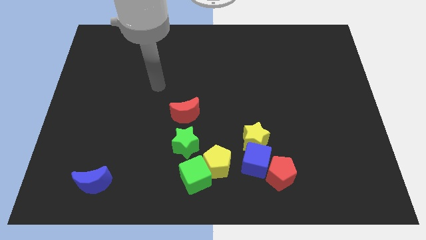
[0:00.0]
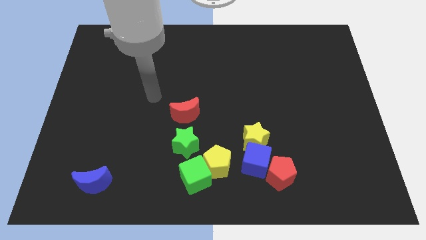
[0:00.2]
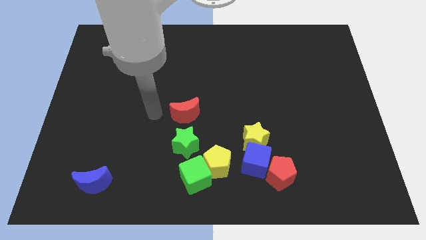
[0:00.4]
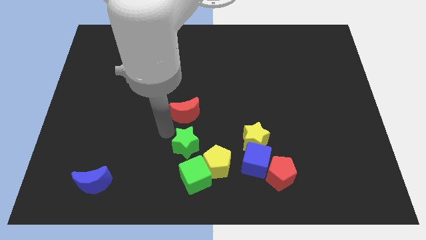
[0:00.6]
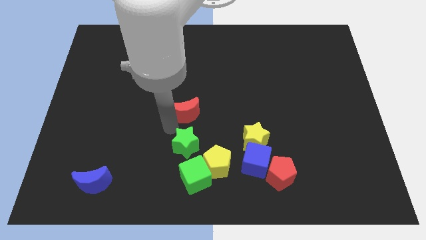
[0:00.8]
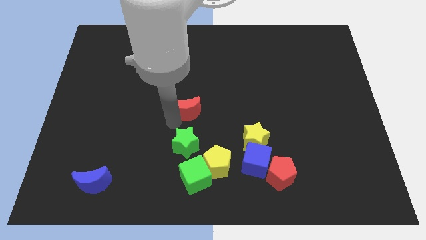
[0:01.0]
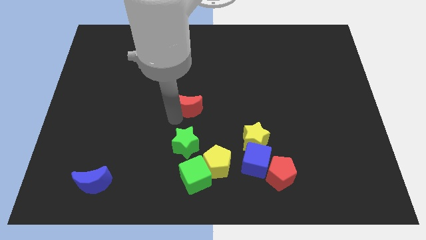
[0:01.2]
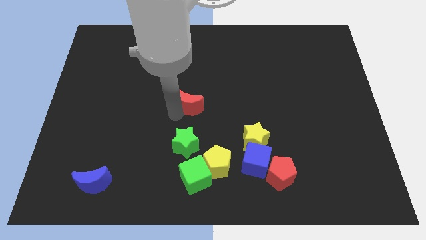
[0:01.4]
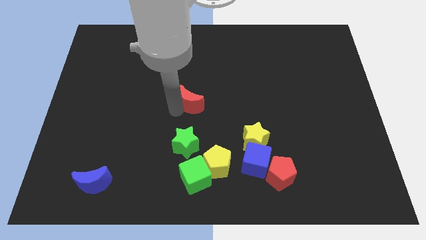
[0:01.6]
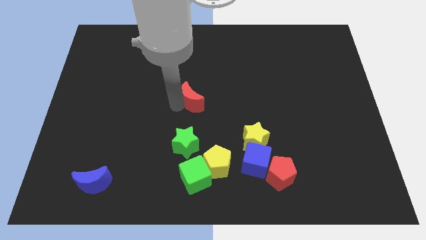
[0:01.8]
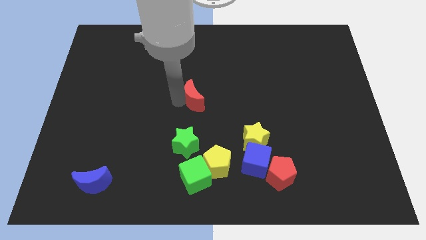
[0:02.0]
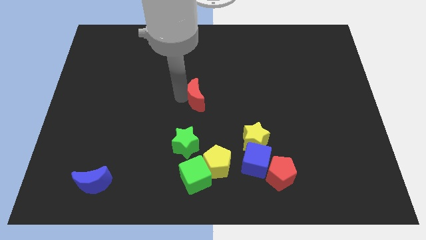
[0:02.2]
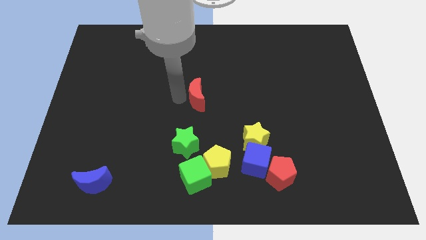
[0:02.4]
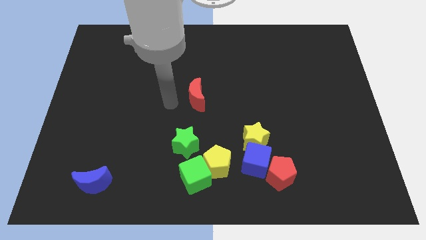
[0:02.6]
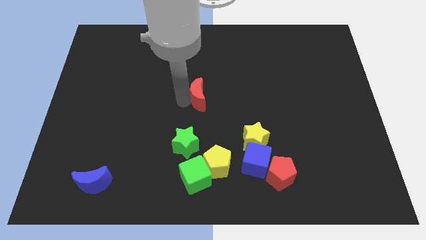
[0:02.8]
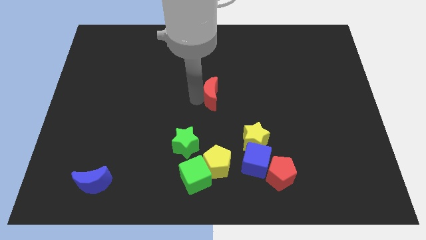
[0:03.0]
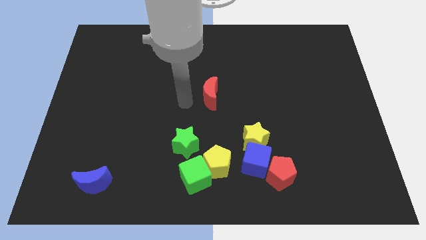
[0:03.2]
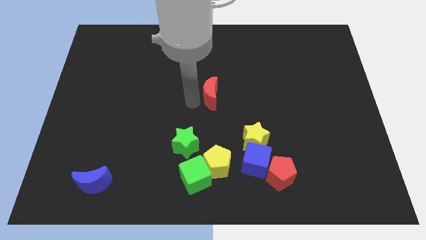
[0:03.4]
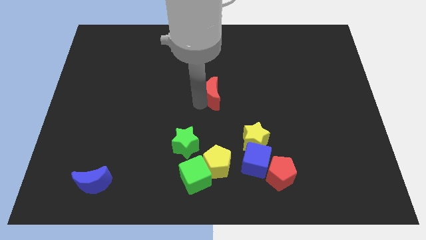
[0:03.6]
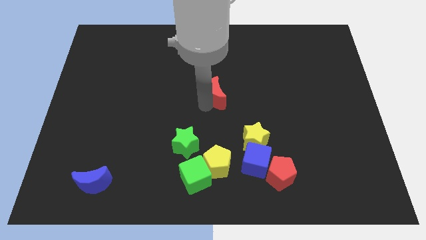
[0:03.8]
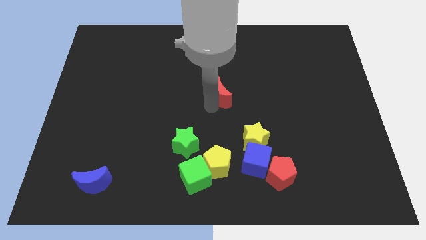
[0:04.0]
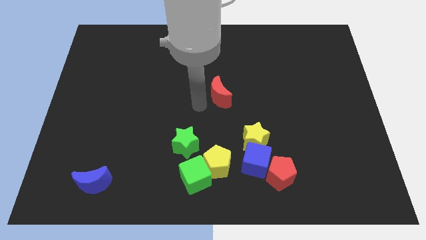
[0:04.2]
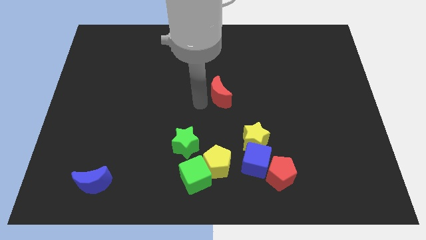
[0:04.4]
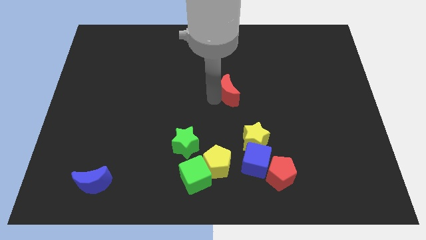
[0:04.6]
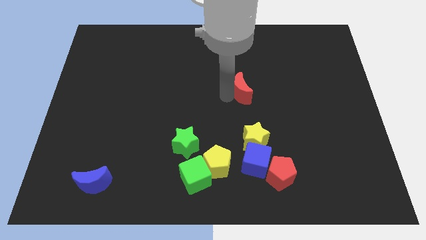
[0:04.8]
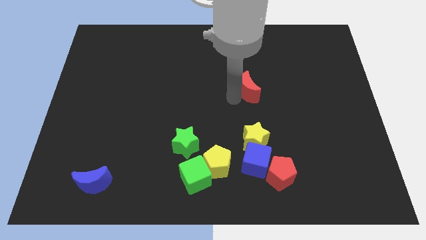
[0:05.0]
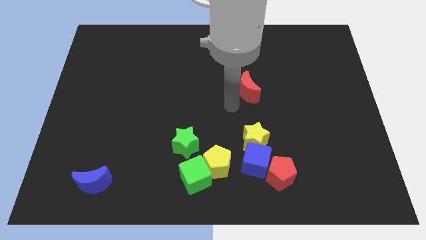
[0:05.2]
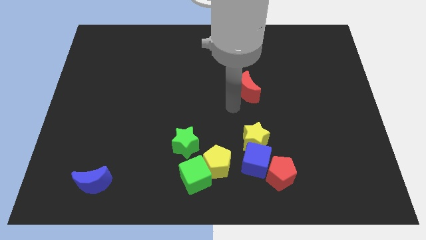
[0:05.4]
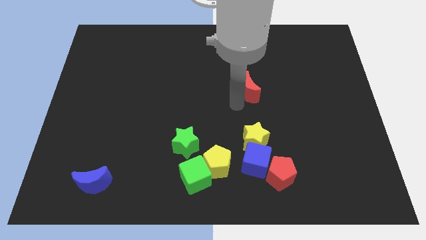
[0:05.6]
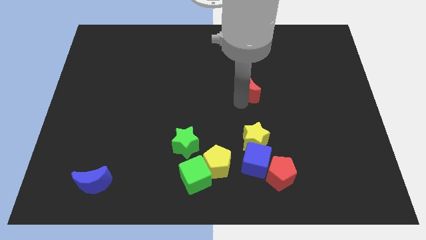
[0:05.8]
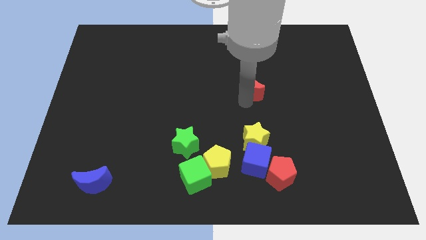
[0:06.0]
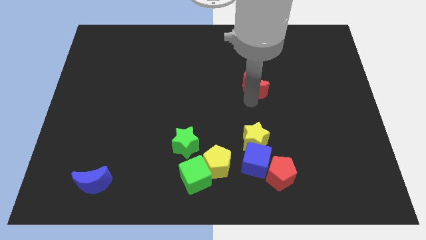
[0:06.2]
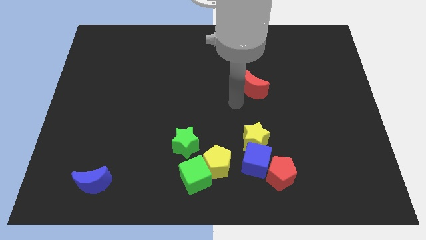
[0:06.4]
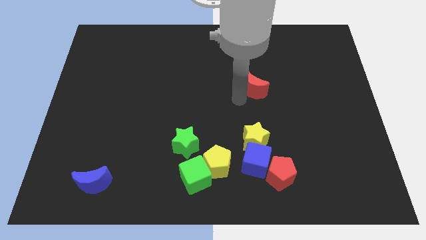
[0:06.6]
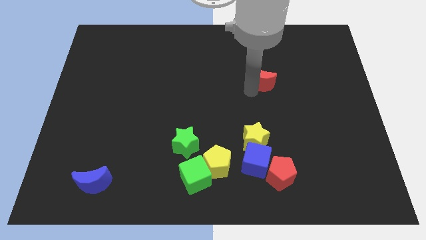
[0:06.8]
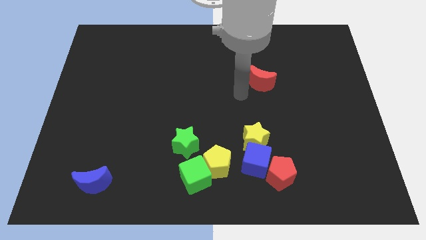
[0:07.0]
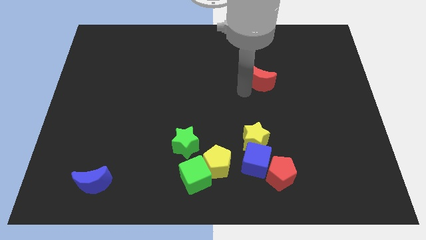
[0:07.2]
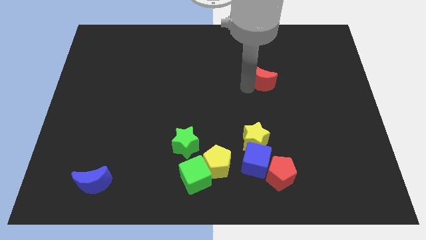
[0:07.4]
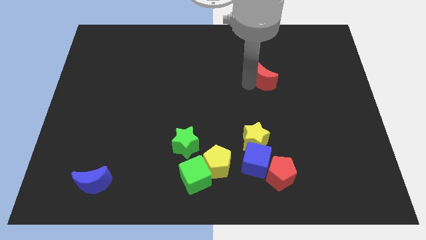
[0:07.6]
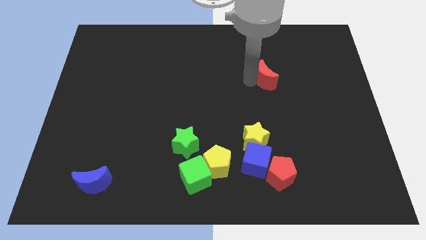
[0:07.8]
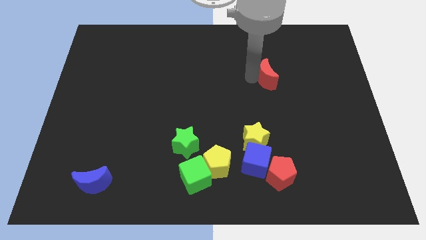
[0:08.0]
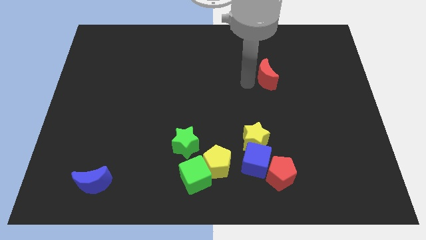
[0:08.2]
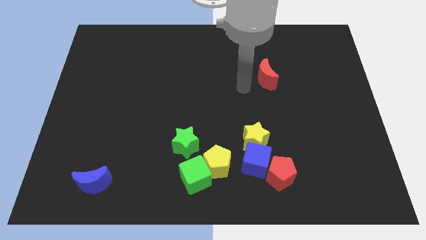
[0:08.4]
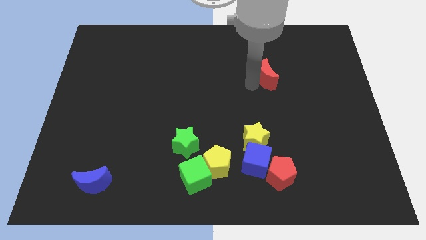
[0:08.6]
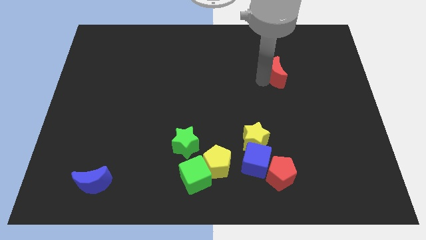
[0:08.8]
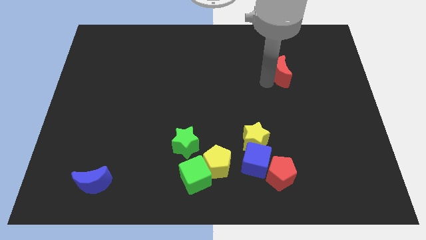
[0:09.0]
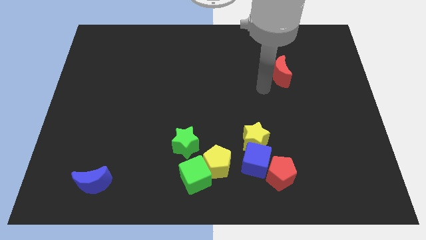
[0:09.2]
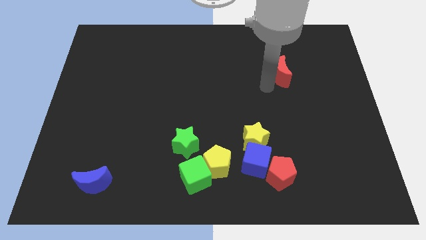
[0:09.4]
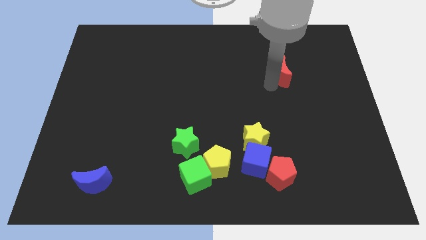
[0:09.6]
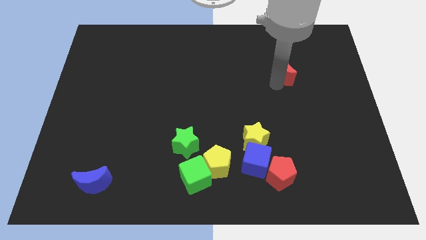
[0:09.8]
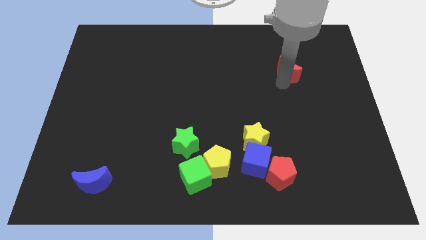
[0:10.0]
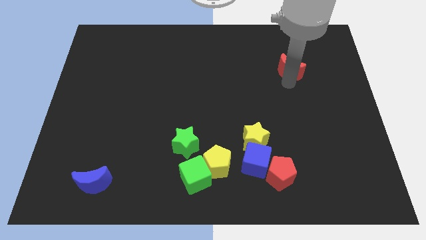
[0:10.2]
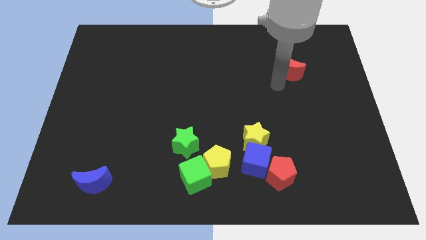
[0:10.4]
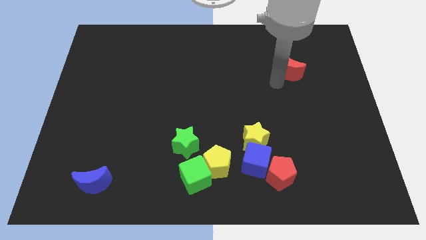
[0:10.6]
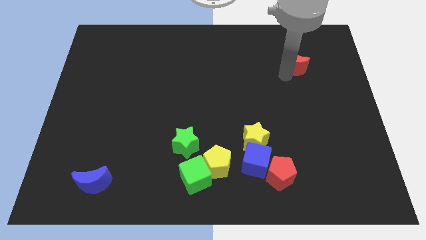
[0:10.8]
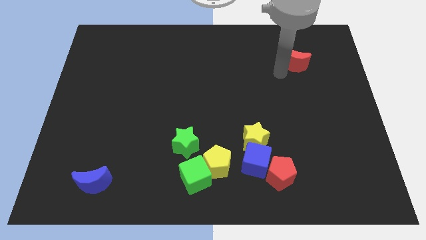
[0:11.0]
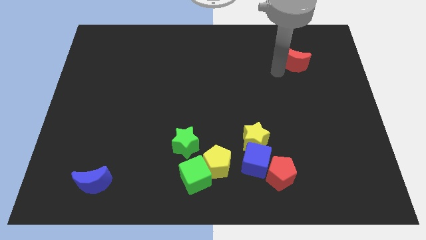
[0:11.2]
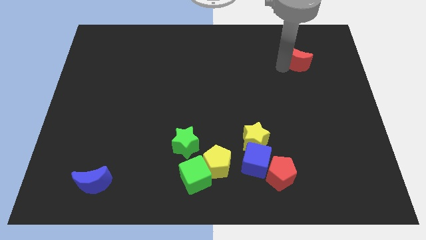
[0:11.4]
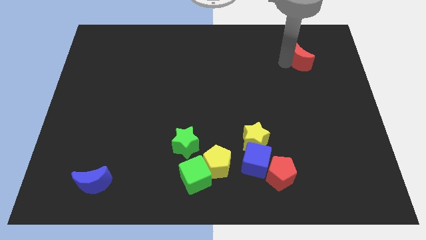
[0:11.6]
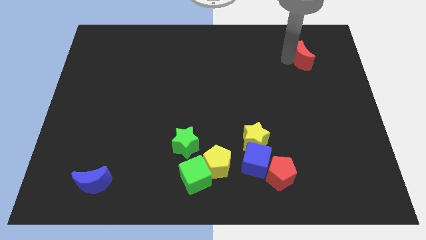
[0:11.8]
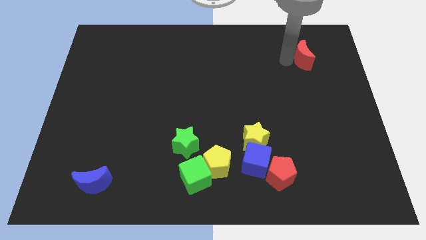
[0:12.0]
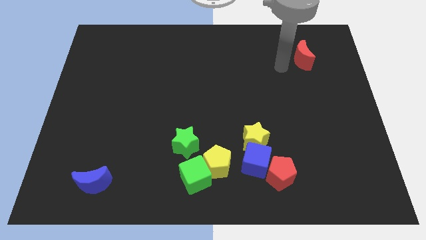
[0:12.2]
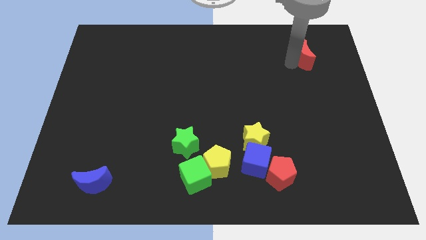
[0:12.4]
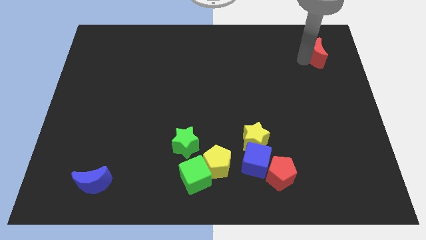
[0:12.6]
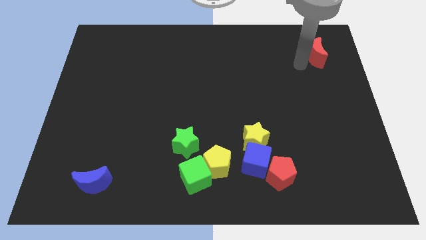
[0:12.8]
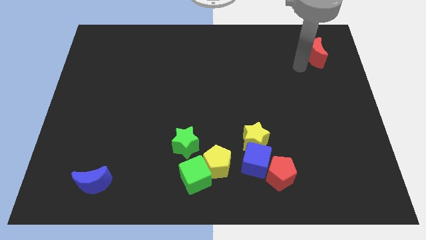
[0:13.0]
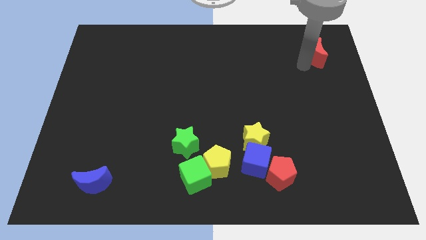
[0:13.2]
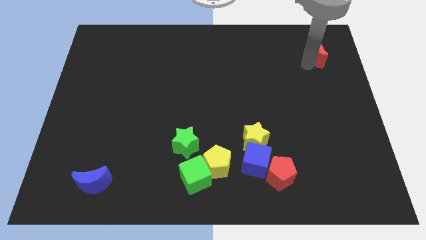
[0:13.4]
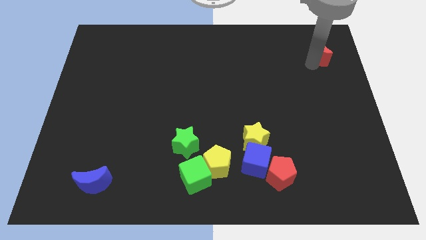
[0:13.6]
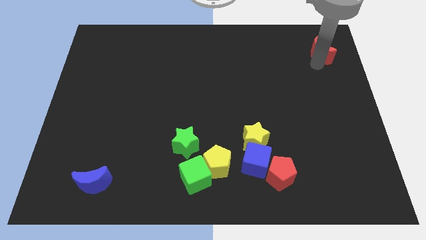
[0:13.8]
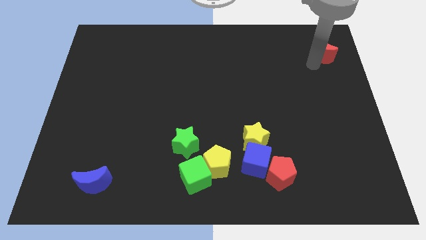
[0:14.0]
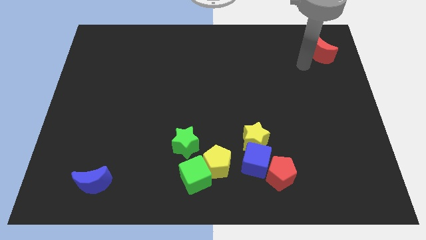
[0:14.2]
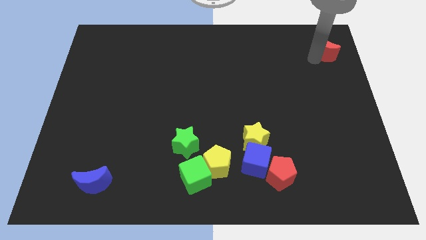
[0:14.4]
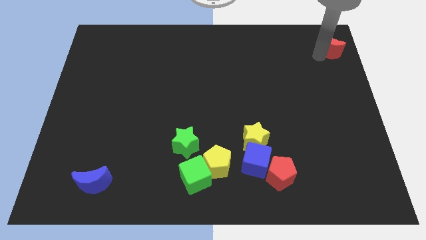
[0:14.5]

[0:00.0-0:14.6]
push the red moon to the top right of the board
